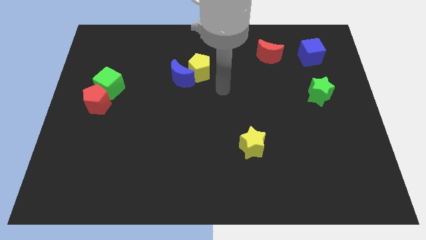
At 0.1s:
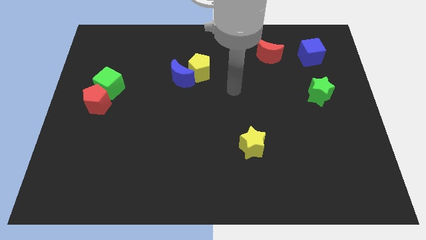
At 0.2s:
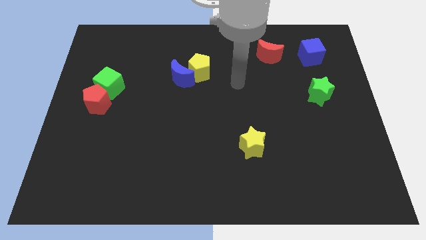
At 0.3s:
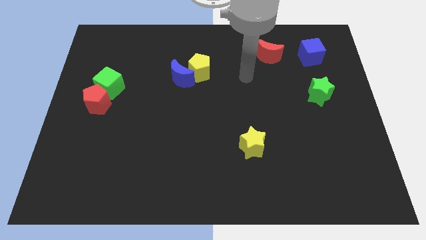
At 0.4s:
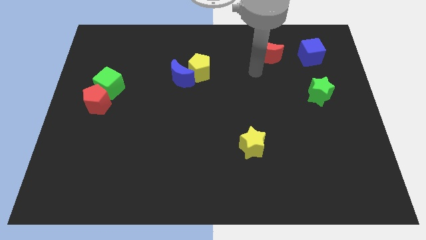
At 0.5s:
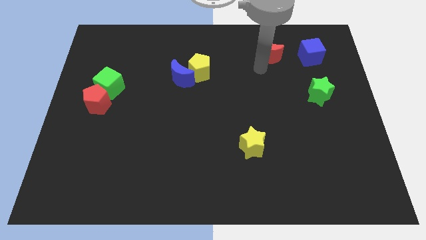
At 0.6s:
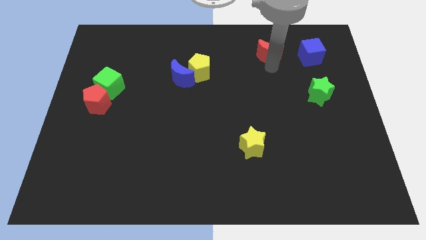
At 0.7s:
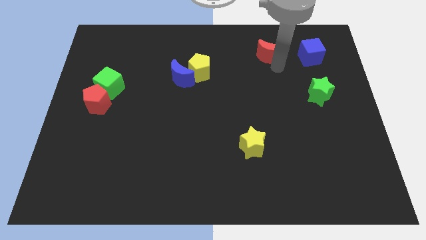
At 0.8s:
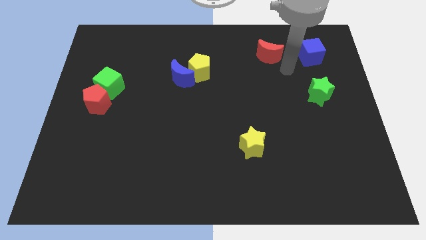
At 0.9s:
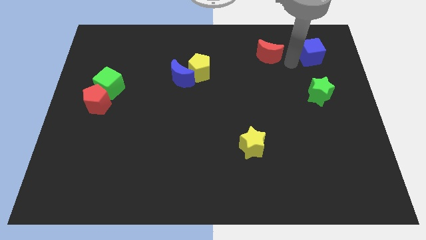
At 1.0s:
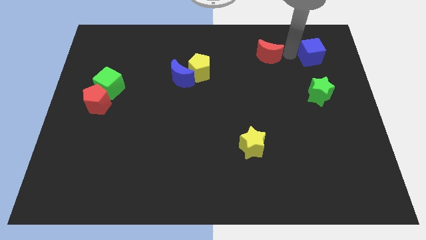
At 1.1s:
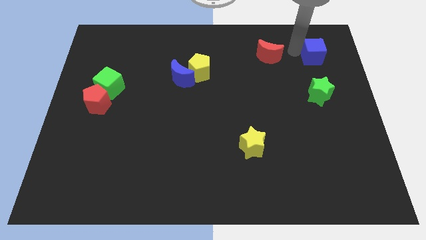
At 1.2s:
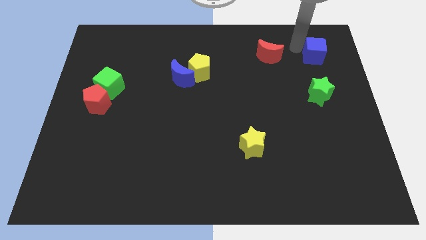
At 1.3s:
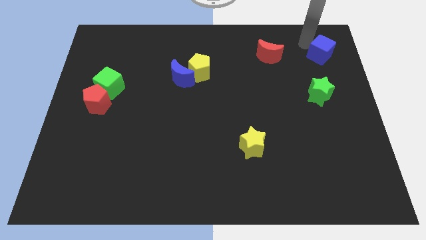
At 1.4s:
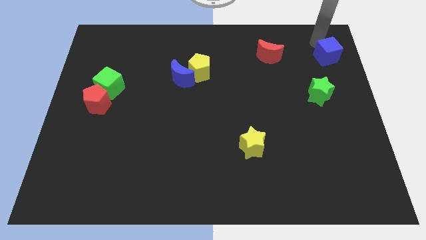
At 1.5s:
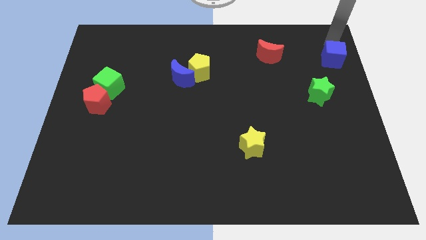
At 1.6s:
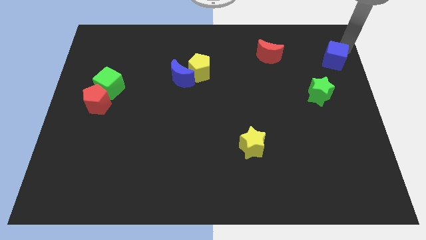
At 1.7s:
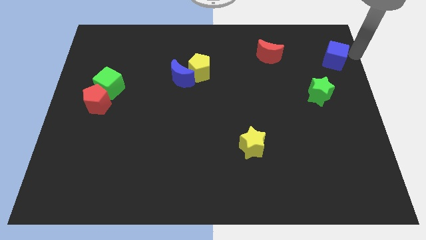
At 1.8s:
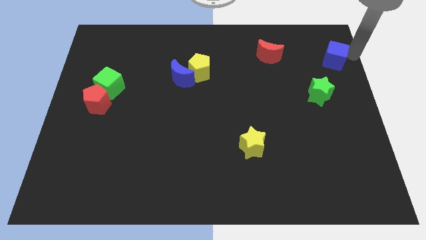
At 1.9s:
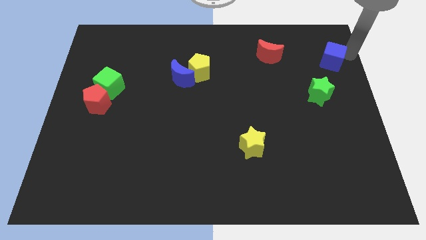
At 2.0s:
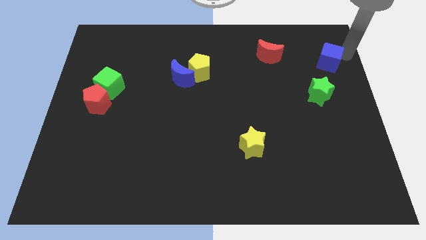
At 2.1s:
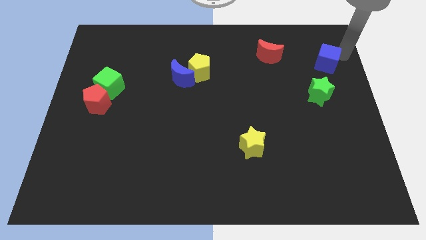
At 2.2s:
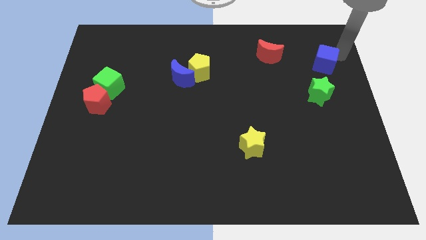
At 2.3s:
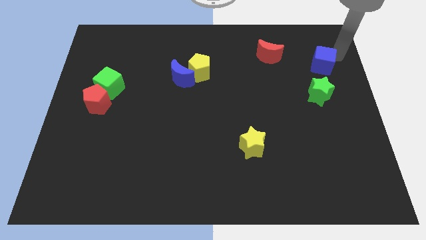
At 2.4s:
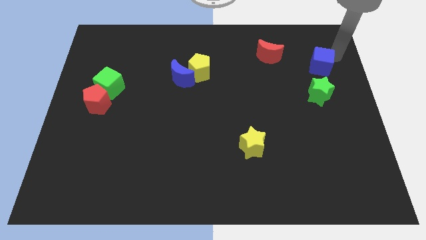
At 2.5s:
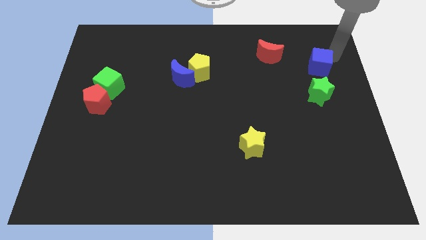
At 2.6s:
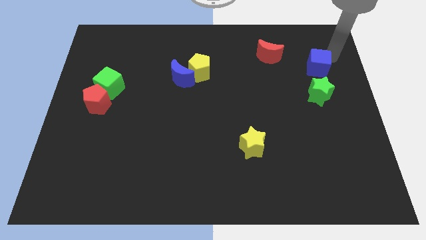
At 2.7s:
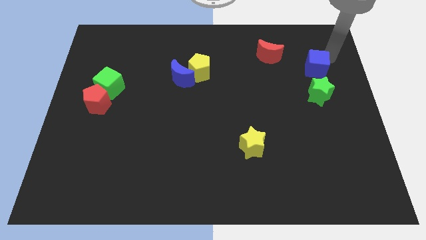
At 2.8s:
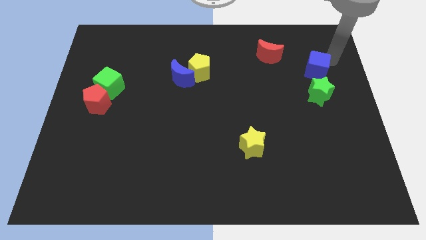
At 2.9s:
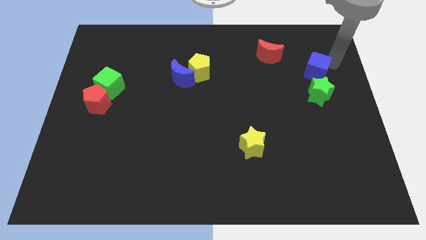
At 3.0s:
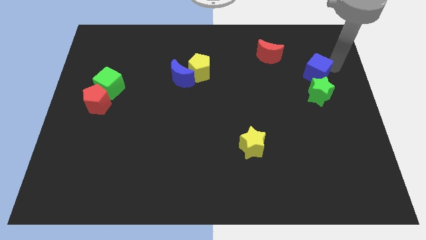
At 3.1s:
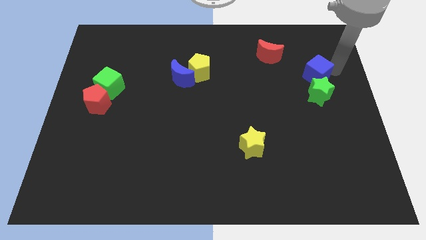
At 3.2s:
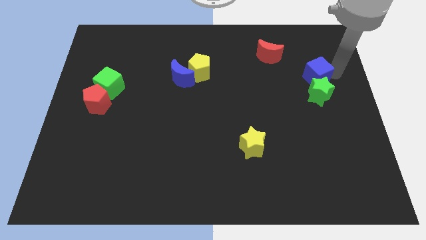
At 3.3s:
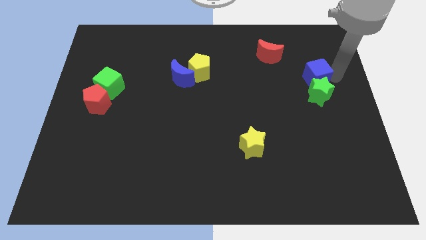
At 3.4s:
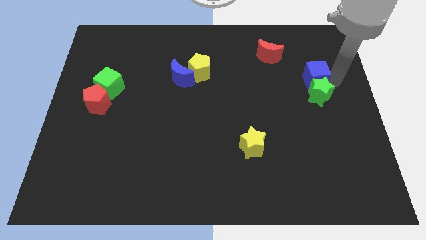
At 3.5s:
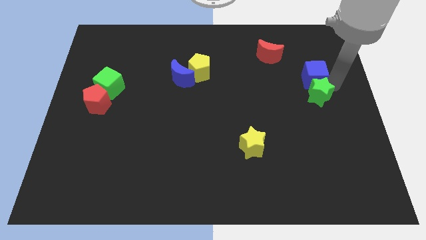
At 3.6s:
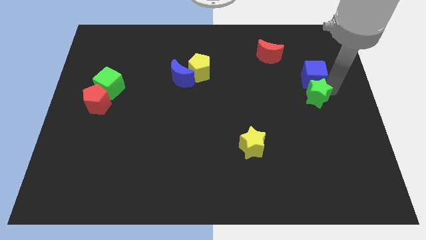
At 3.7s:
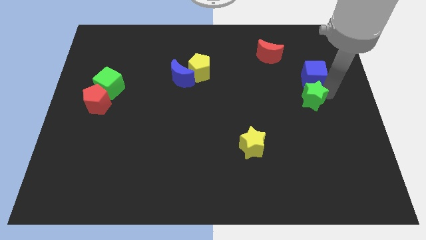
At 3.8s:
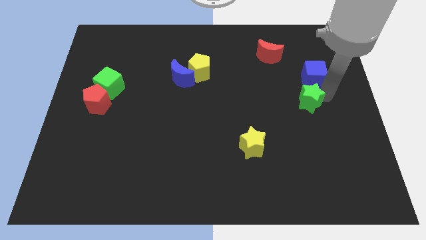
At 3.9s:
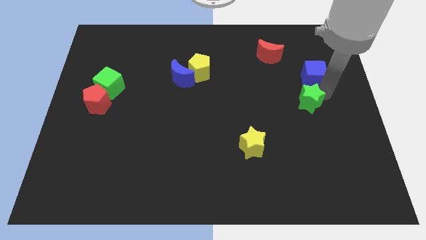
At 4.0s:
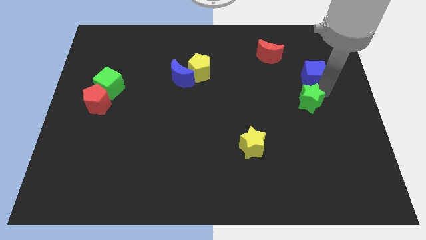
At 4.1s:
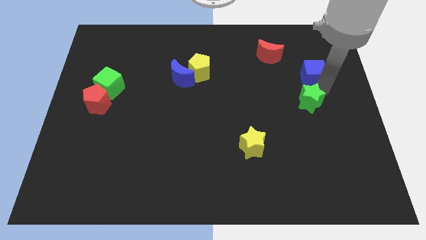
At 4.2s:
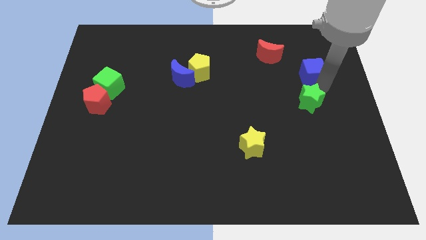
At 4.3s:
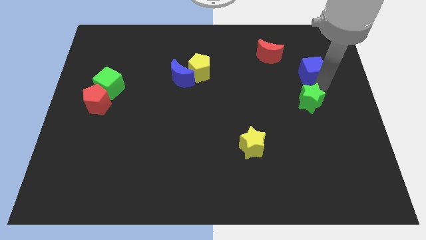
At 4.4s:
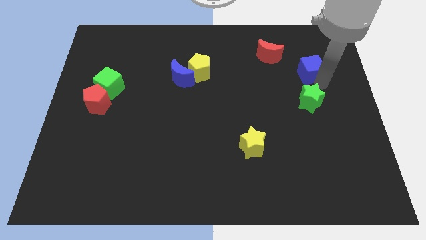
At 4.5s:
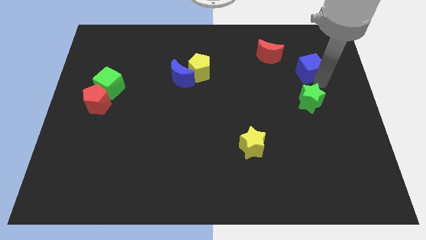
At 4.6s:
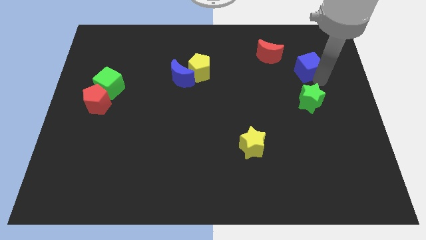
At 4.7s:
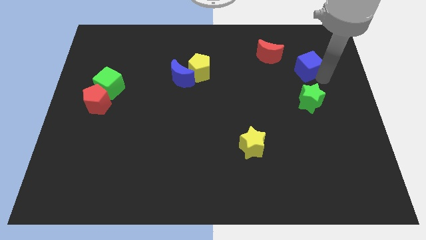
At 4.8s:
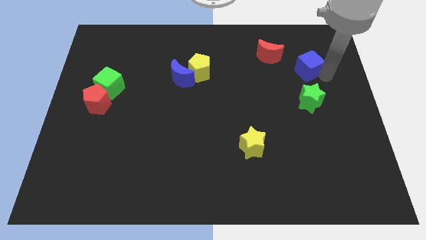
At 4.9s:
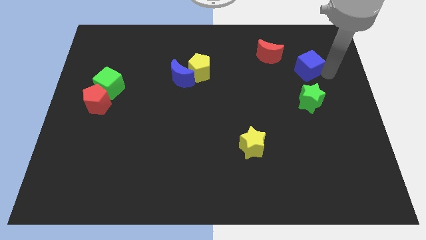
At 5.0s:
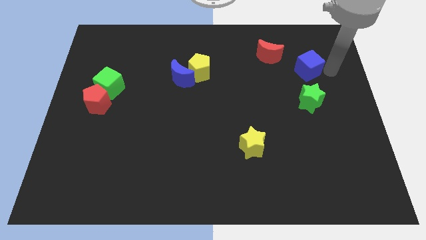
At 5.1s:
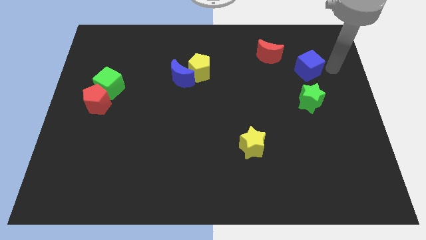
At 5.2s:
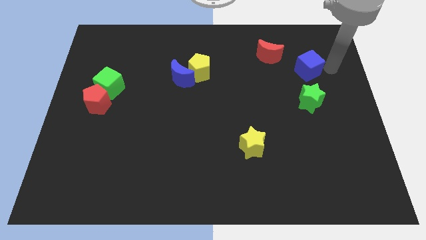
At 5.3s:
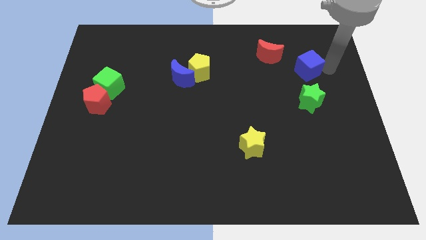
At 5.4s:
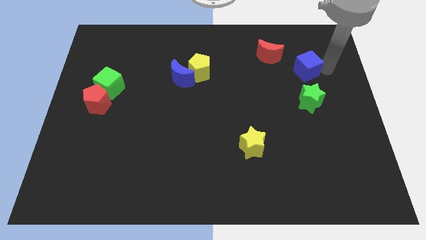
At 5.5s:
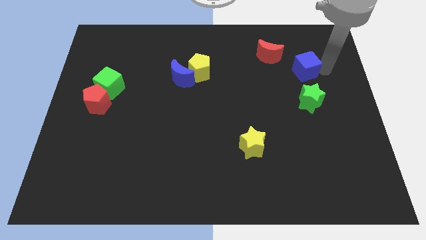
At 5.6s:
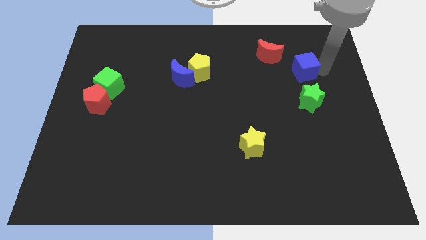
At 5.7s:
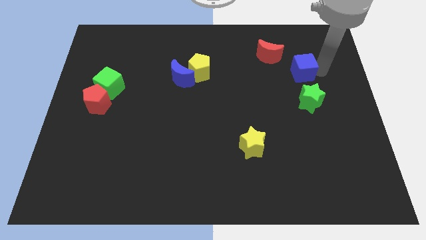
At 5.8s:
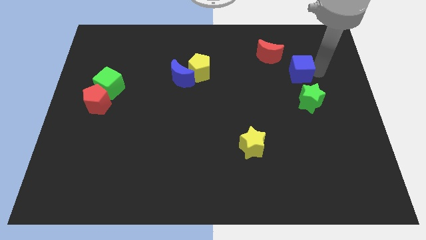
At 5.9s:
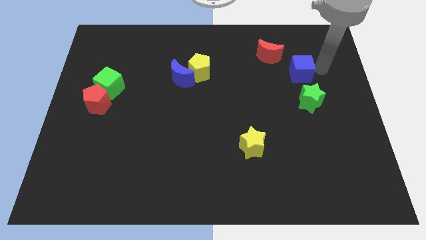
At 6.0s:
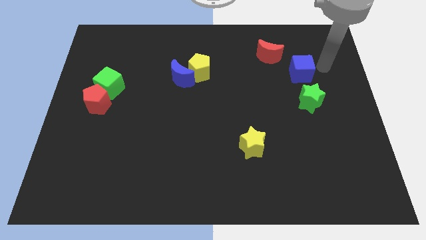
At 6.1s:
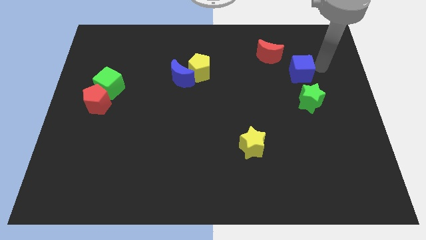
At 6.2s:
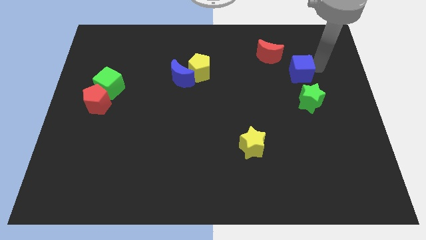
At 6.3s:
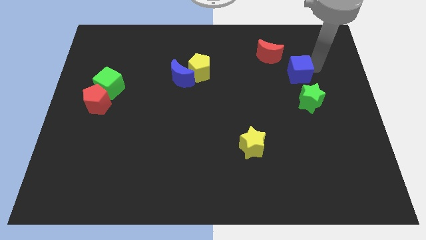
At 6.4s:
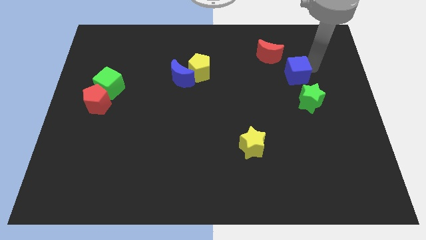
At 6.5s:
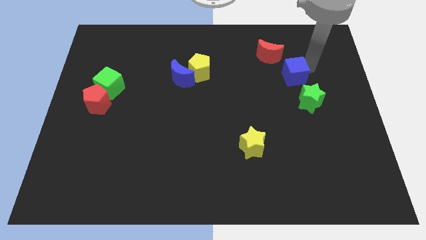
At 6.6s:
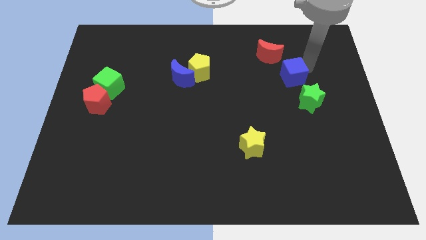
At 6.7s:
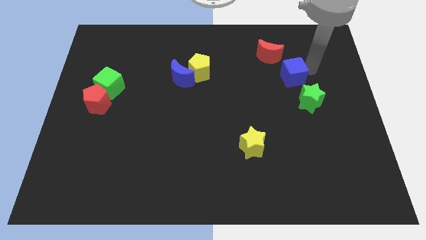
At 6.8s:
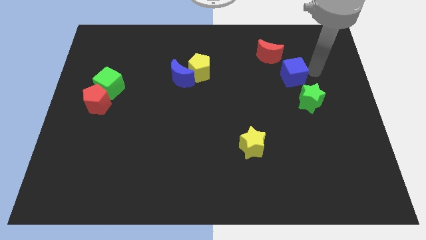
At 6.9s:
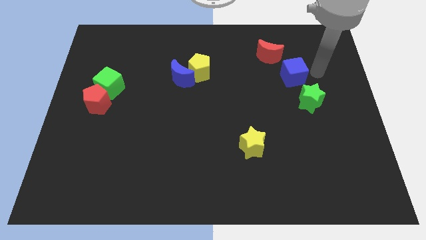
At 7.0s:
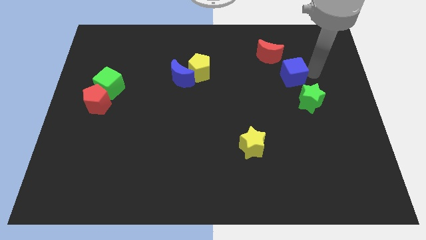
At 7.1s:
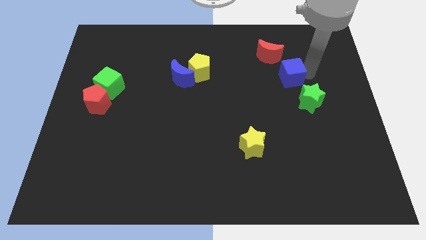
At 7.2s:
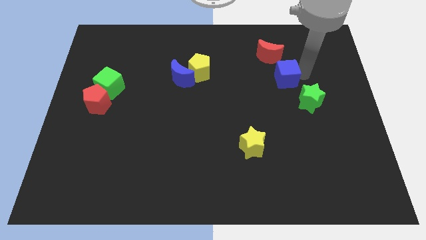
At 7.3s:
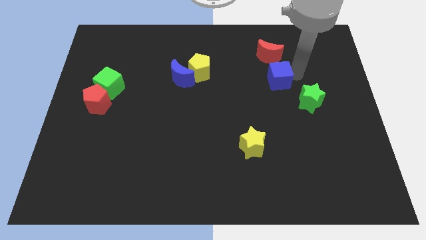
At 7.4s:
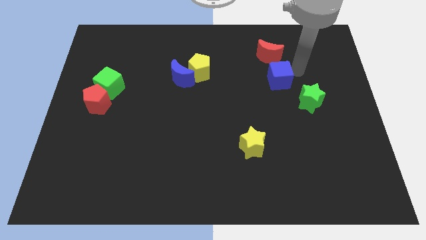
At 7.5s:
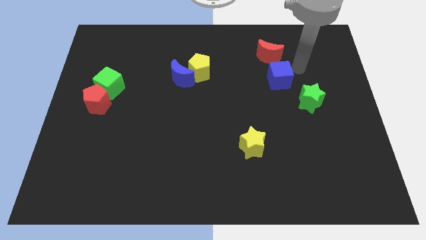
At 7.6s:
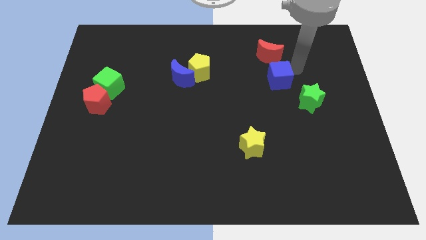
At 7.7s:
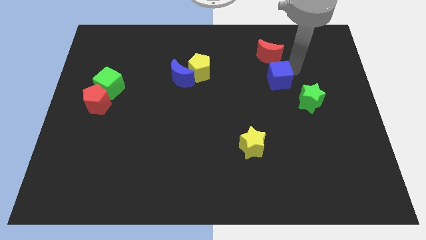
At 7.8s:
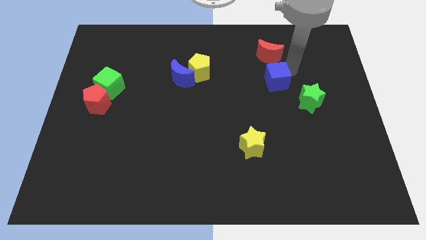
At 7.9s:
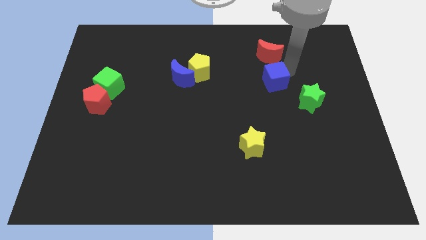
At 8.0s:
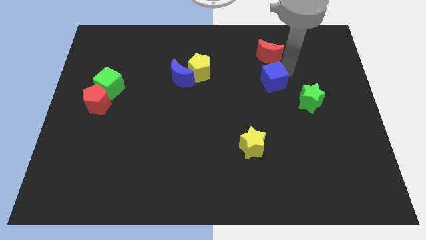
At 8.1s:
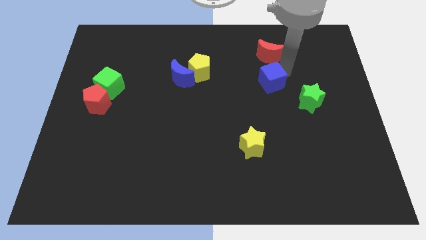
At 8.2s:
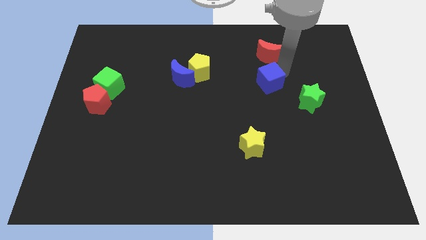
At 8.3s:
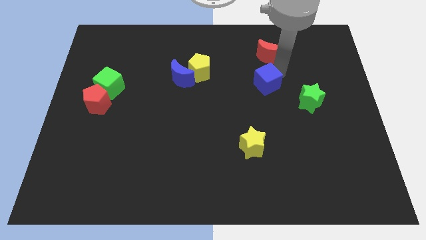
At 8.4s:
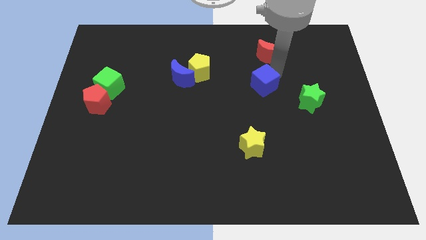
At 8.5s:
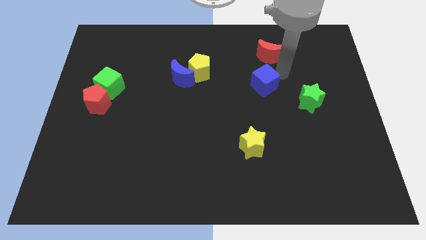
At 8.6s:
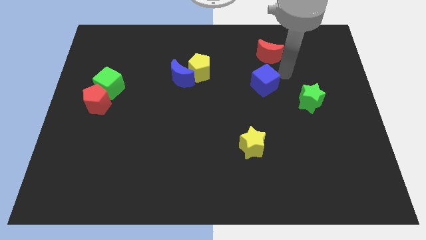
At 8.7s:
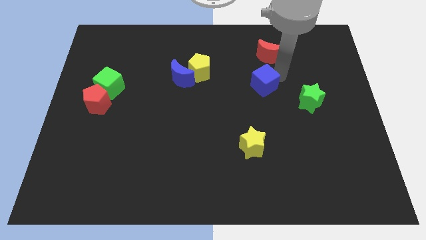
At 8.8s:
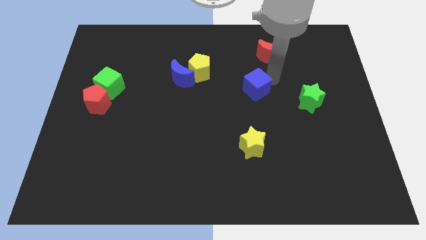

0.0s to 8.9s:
push the blue cube to the middle

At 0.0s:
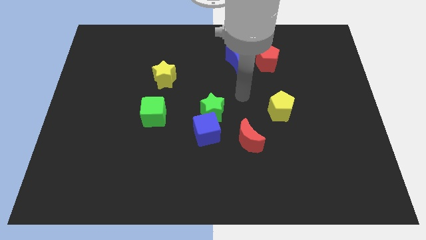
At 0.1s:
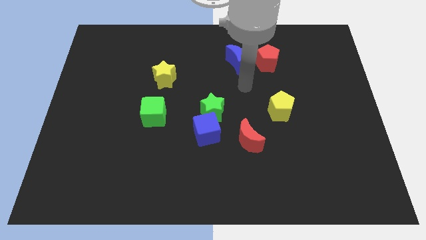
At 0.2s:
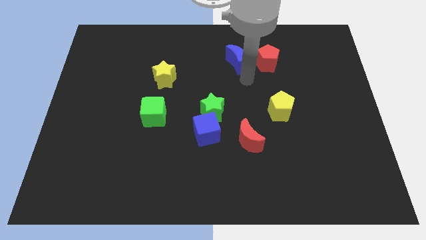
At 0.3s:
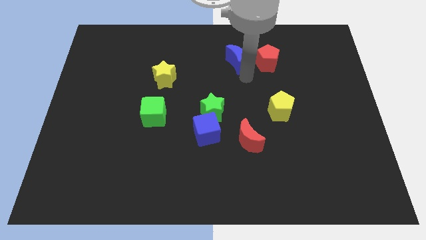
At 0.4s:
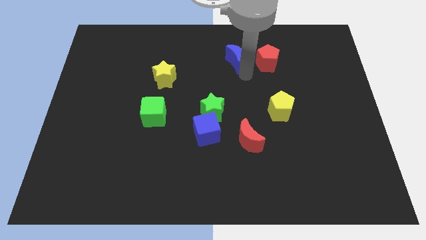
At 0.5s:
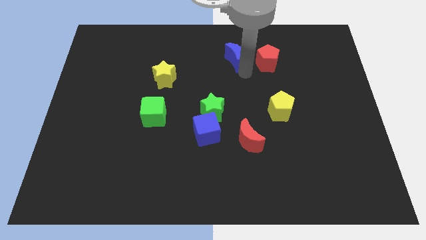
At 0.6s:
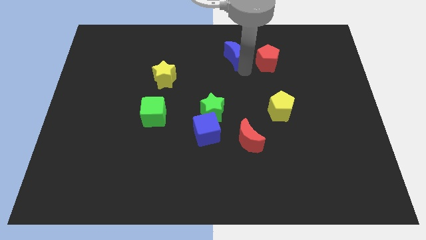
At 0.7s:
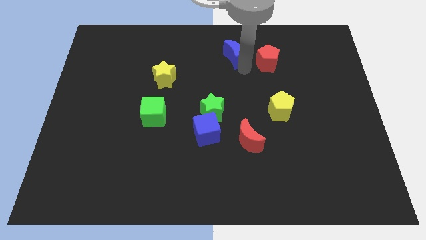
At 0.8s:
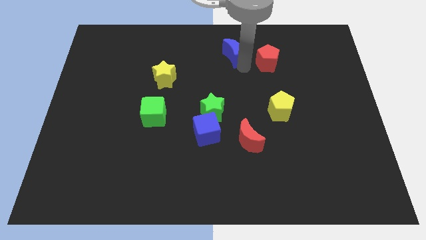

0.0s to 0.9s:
push the blue moon to the top side
